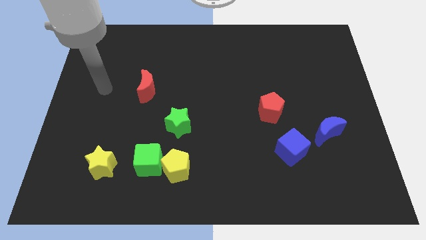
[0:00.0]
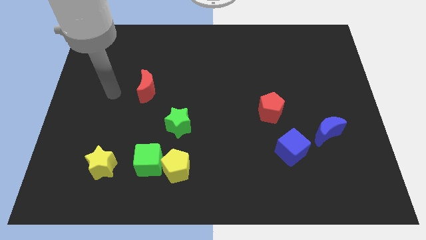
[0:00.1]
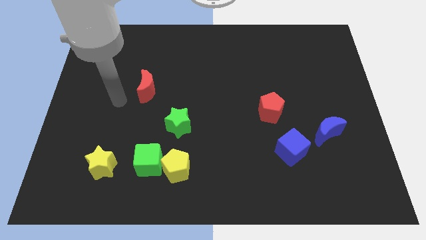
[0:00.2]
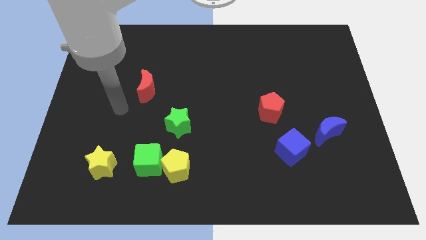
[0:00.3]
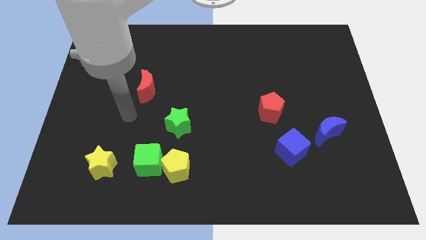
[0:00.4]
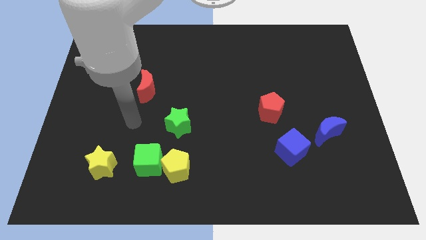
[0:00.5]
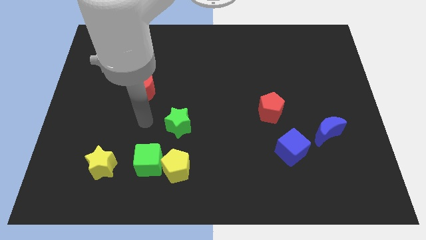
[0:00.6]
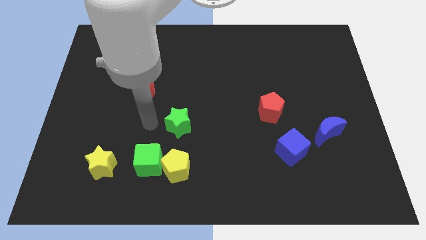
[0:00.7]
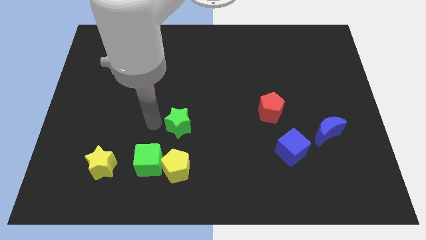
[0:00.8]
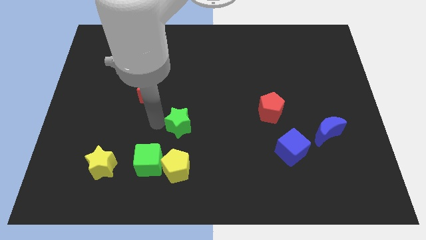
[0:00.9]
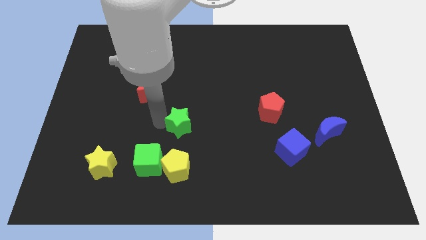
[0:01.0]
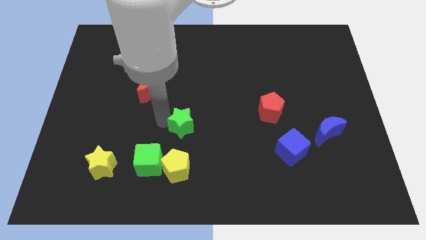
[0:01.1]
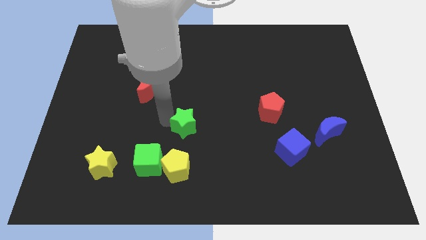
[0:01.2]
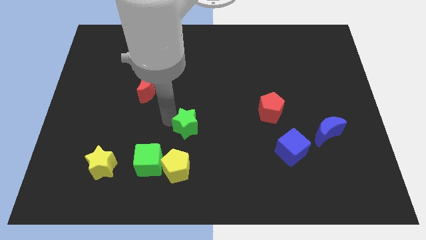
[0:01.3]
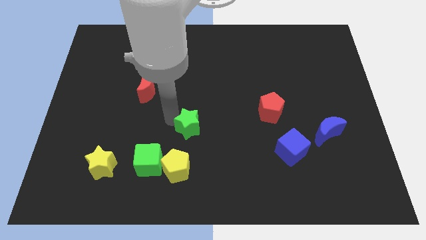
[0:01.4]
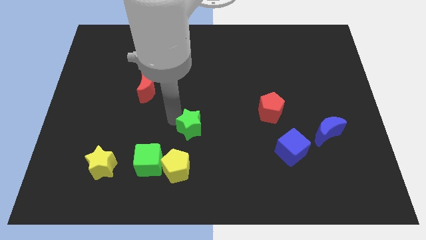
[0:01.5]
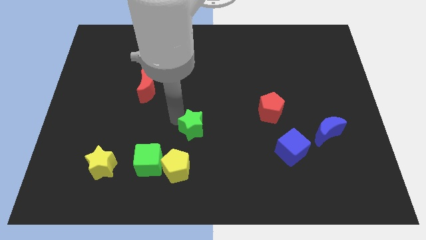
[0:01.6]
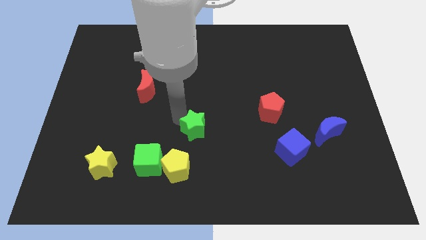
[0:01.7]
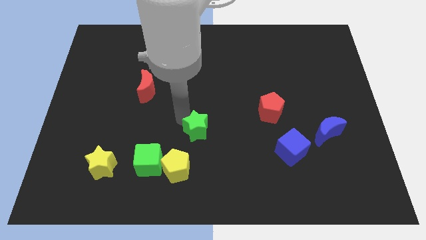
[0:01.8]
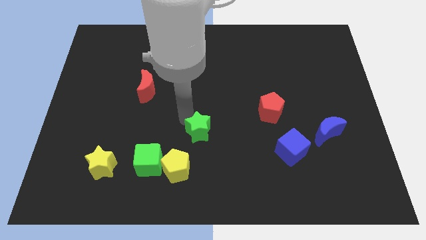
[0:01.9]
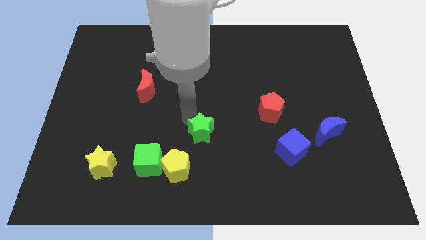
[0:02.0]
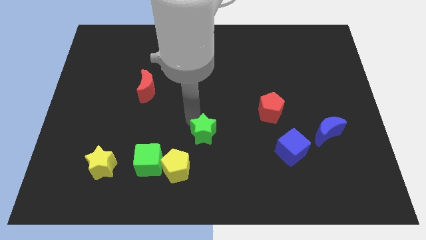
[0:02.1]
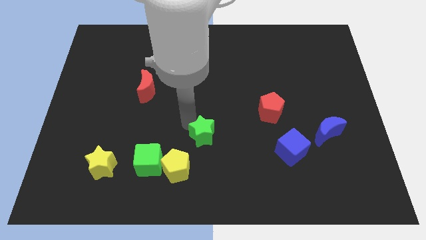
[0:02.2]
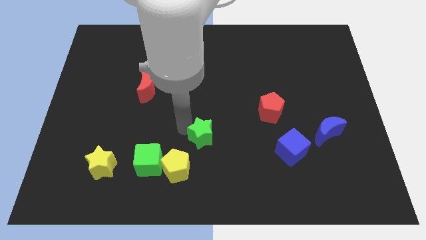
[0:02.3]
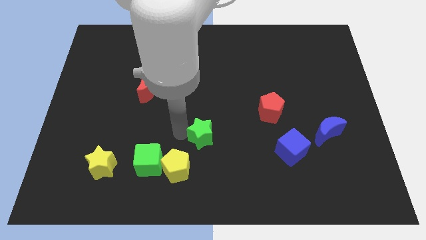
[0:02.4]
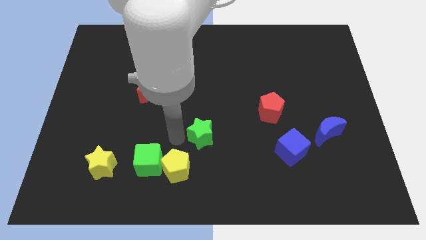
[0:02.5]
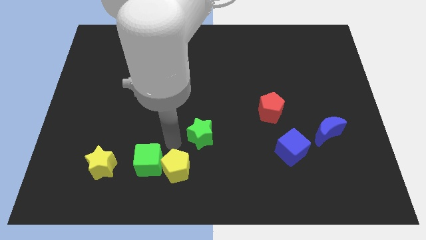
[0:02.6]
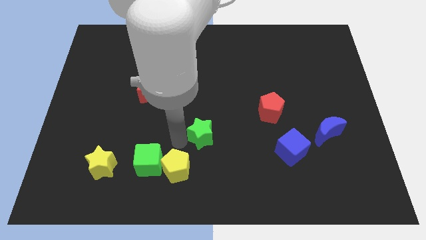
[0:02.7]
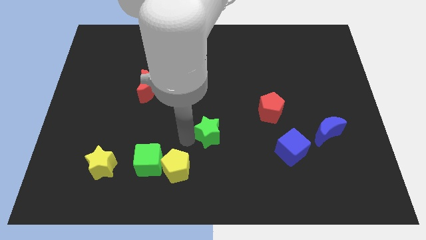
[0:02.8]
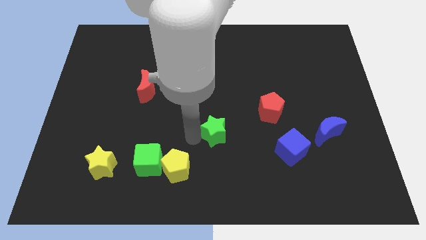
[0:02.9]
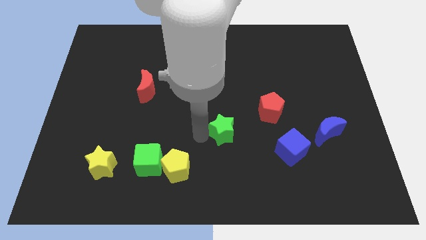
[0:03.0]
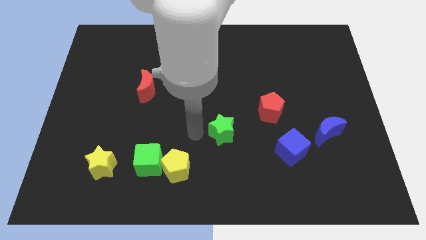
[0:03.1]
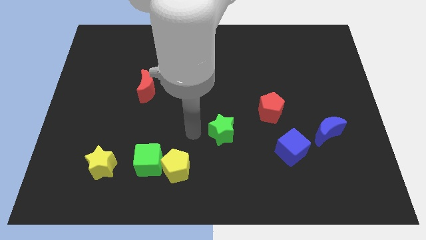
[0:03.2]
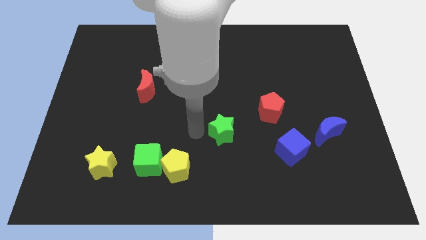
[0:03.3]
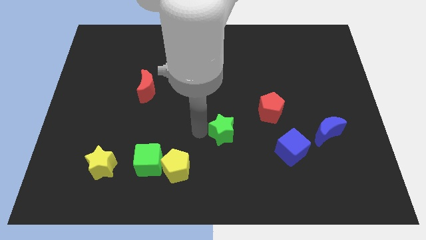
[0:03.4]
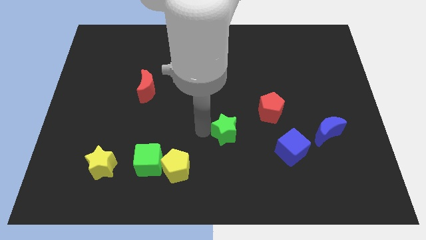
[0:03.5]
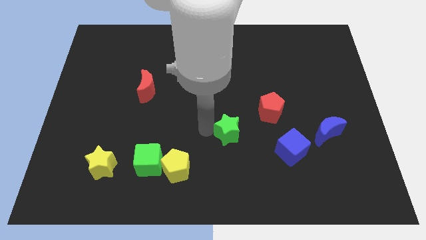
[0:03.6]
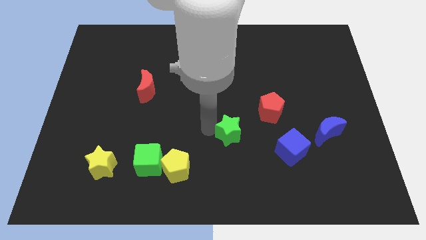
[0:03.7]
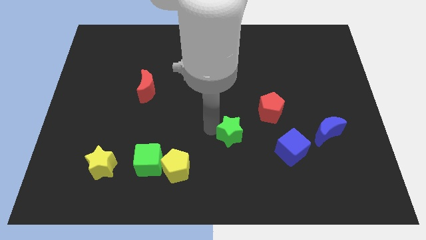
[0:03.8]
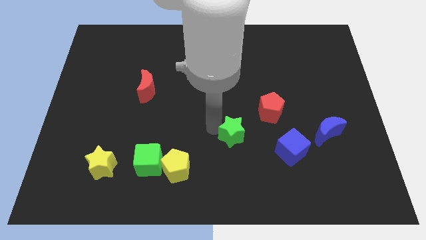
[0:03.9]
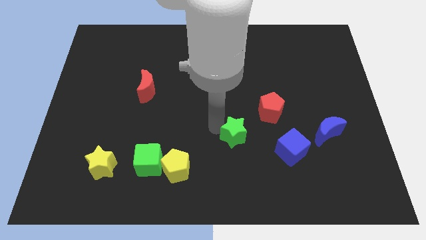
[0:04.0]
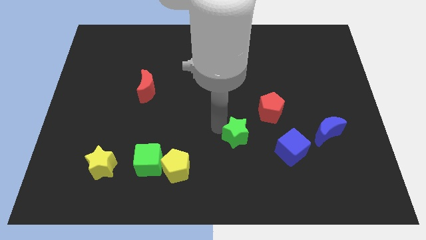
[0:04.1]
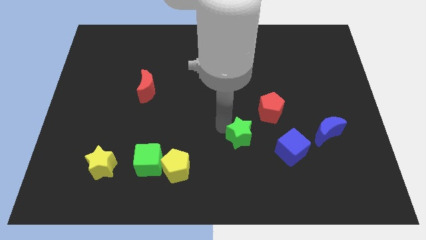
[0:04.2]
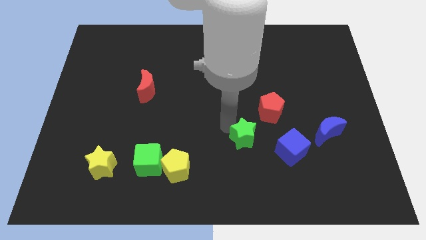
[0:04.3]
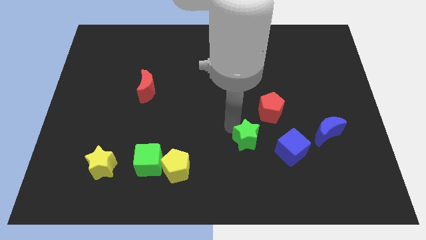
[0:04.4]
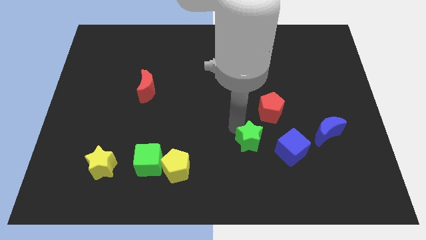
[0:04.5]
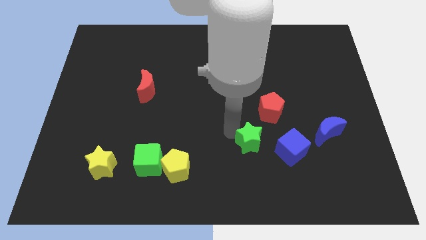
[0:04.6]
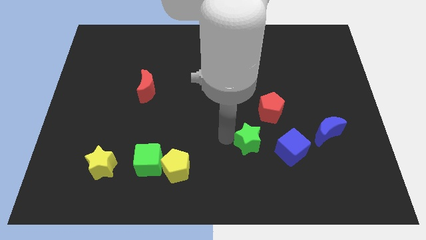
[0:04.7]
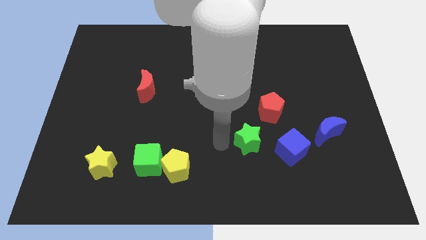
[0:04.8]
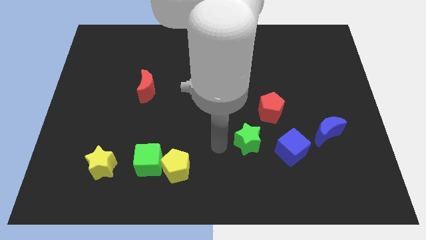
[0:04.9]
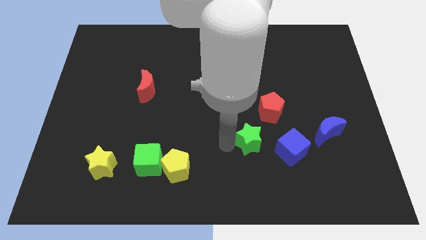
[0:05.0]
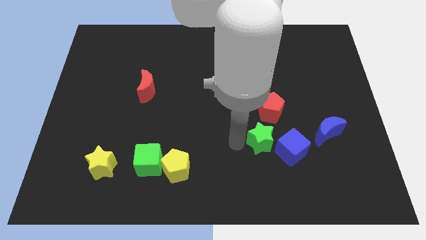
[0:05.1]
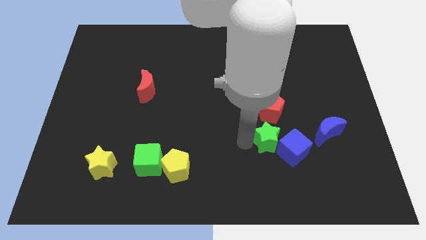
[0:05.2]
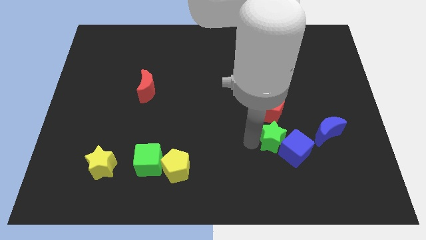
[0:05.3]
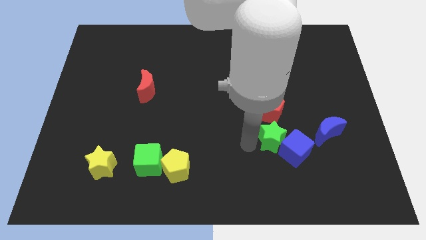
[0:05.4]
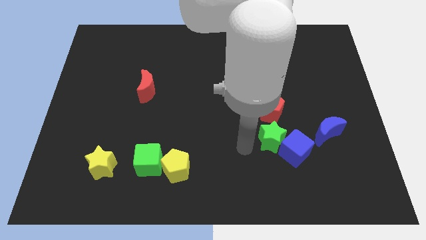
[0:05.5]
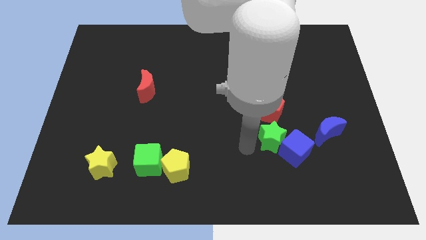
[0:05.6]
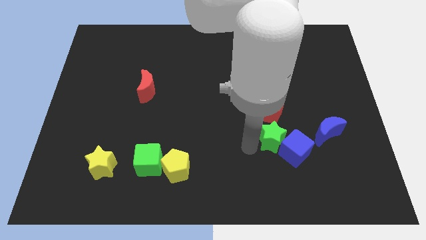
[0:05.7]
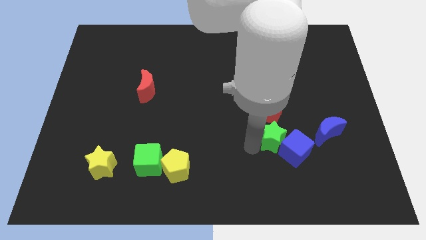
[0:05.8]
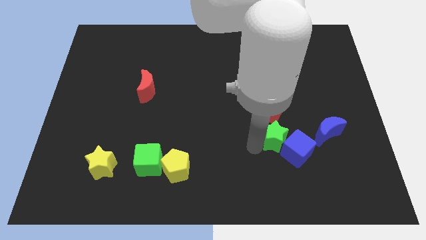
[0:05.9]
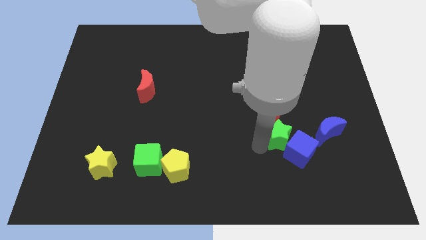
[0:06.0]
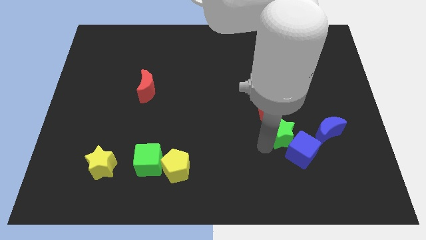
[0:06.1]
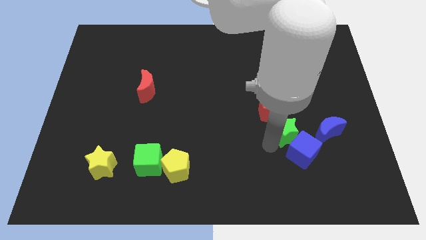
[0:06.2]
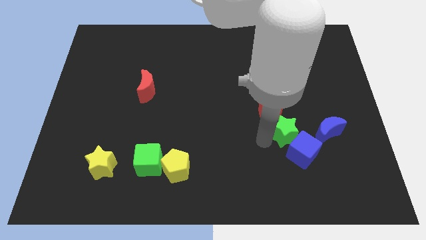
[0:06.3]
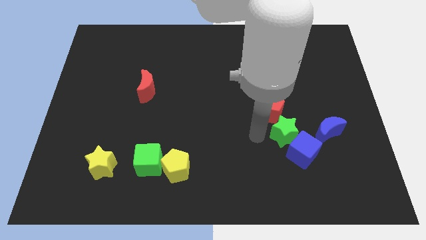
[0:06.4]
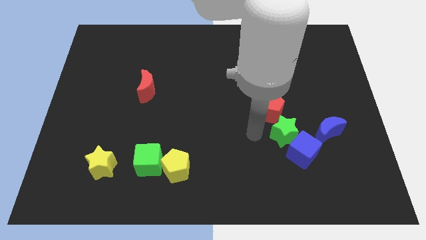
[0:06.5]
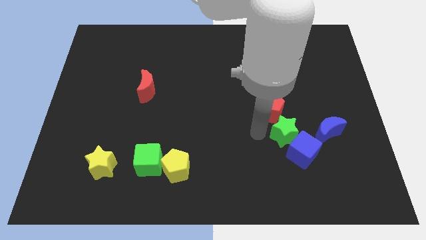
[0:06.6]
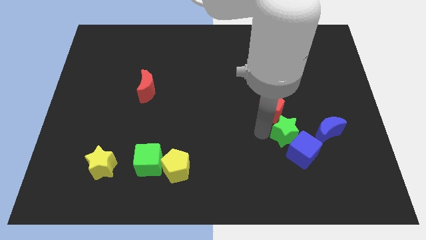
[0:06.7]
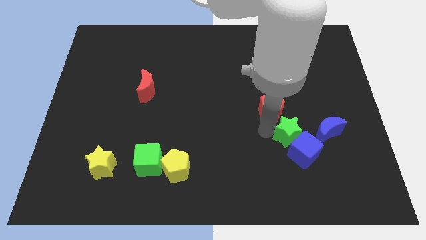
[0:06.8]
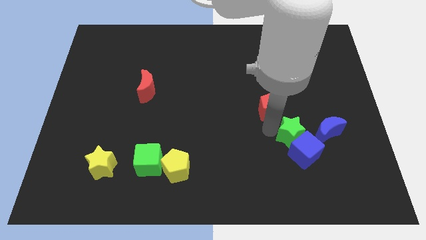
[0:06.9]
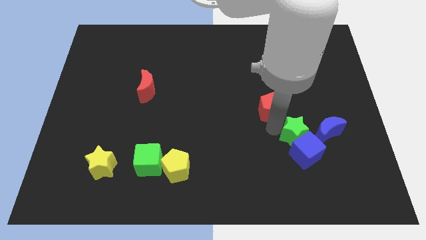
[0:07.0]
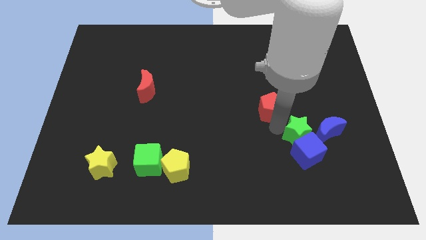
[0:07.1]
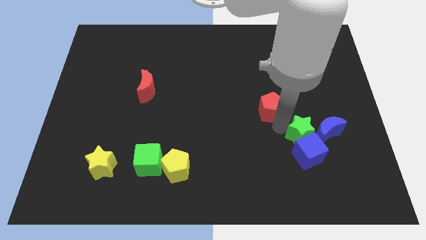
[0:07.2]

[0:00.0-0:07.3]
put the green star next to the blue moon
